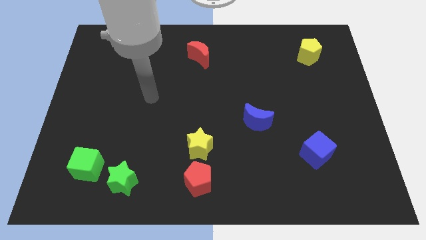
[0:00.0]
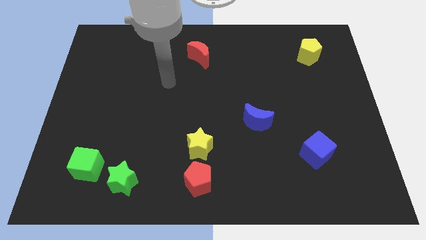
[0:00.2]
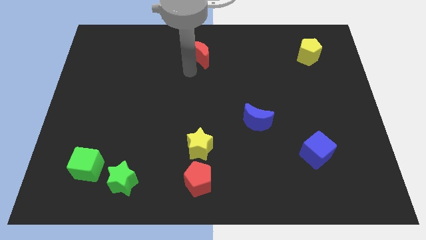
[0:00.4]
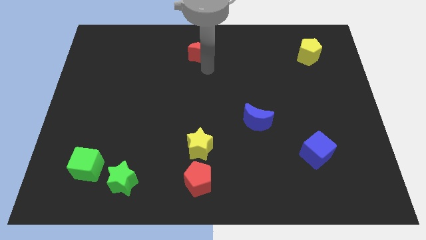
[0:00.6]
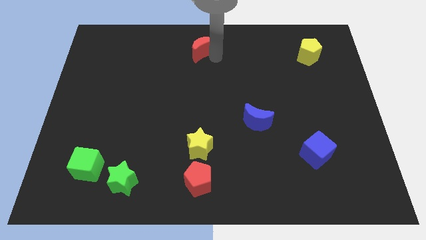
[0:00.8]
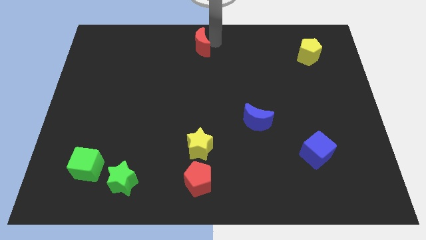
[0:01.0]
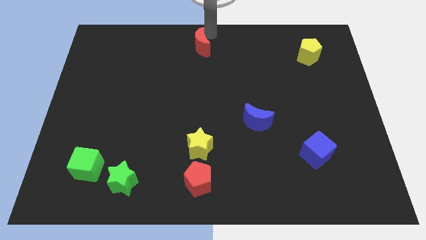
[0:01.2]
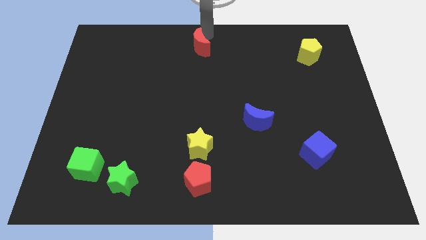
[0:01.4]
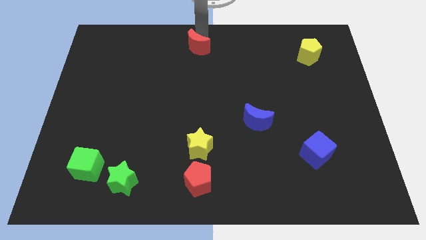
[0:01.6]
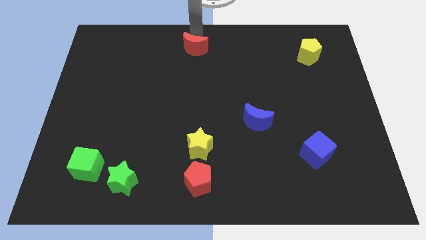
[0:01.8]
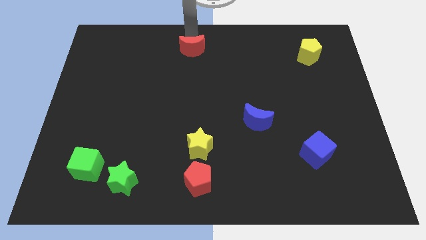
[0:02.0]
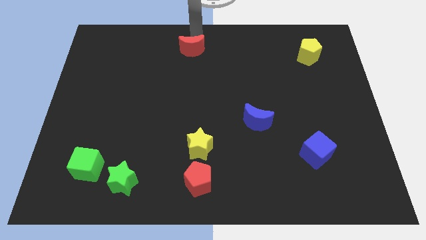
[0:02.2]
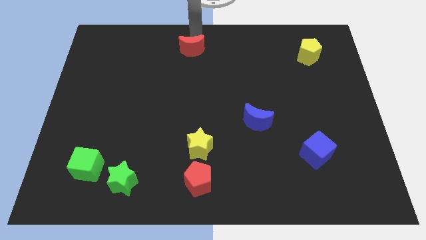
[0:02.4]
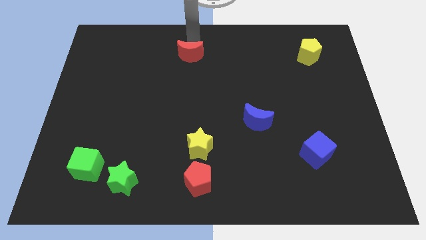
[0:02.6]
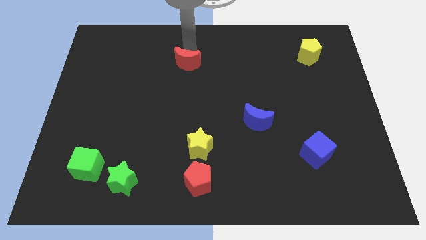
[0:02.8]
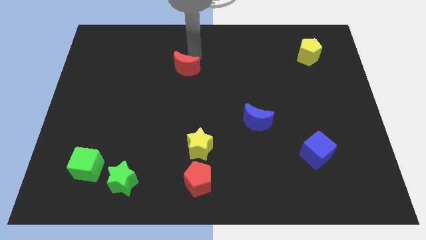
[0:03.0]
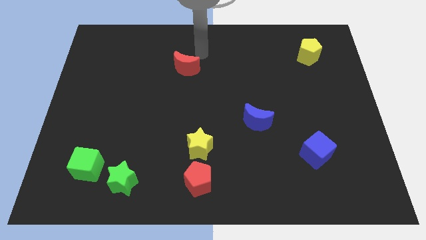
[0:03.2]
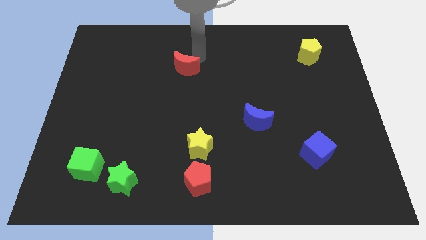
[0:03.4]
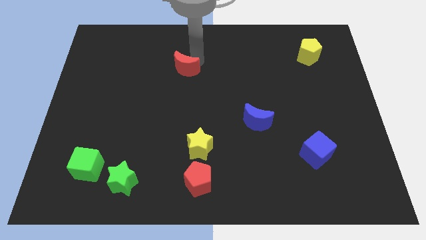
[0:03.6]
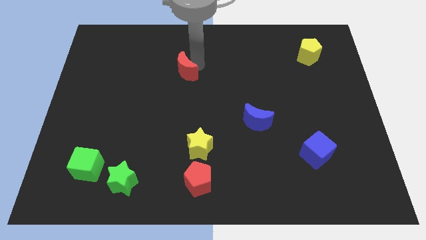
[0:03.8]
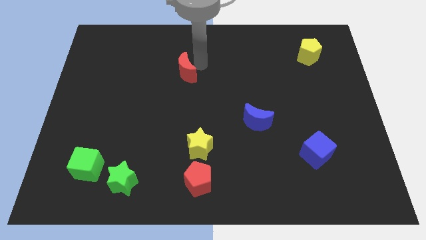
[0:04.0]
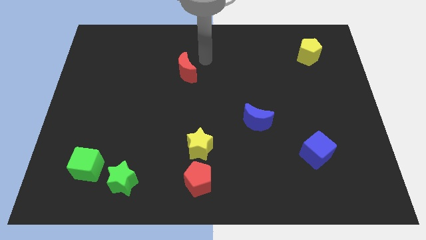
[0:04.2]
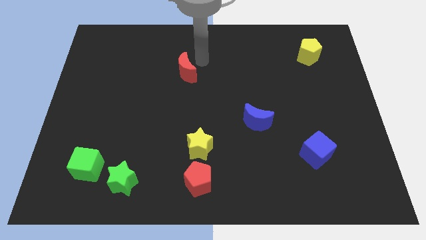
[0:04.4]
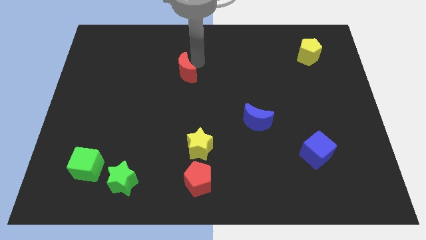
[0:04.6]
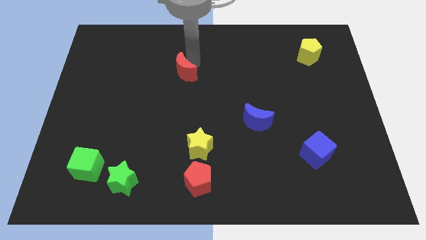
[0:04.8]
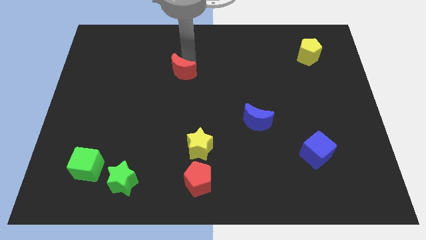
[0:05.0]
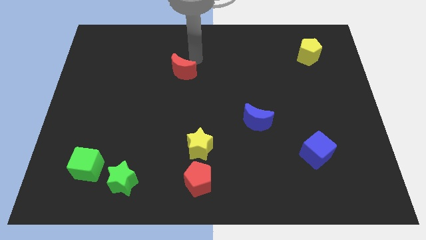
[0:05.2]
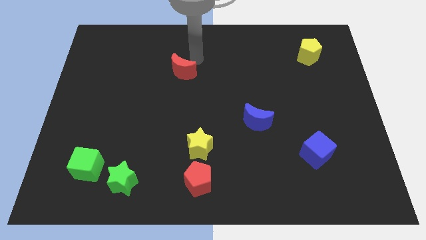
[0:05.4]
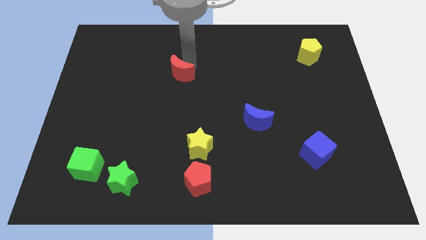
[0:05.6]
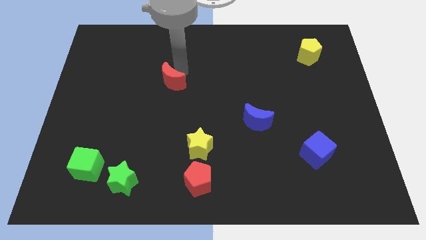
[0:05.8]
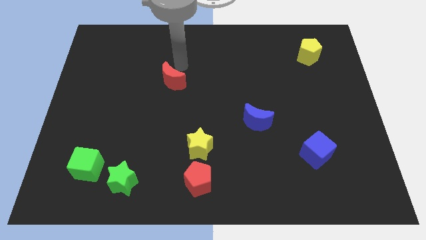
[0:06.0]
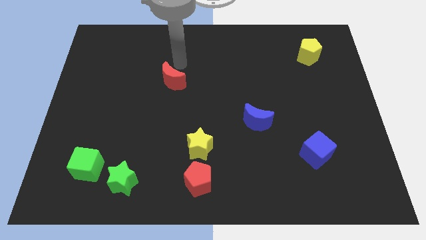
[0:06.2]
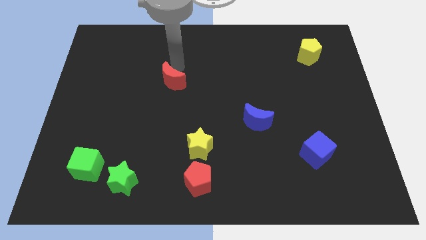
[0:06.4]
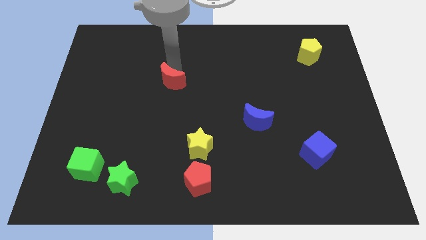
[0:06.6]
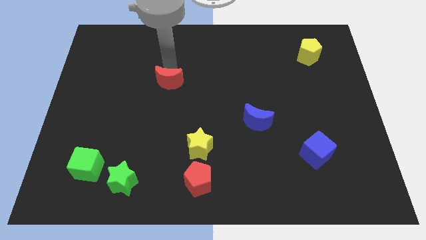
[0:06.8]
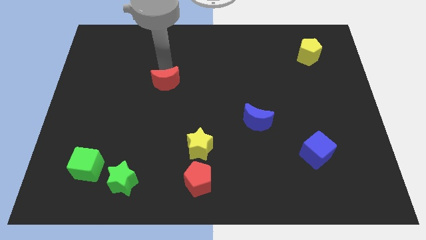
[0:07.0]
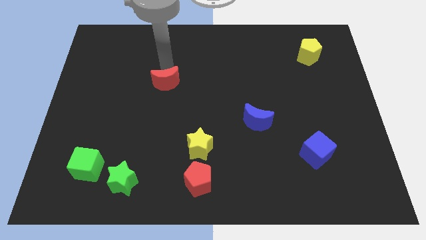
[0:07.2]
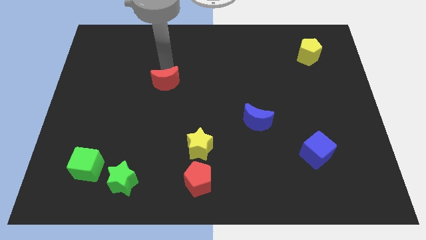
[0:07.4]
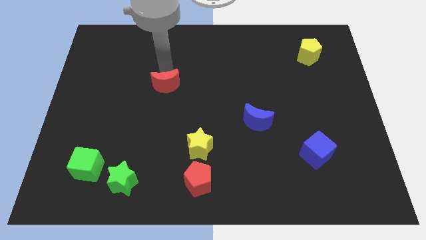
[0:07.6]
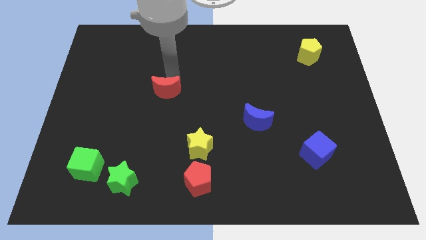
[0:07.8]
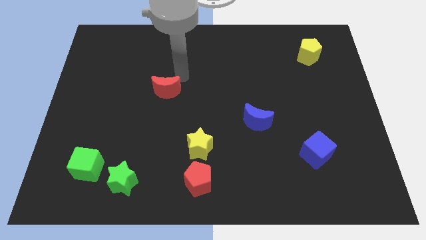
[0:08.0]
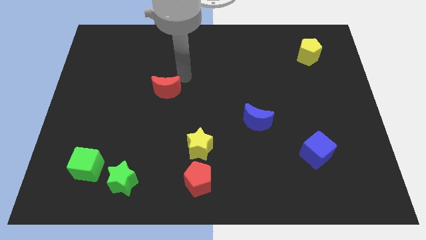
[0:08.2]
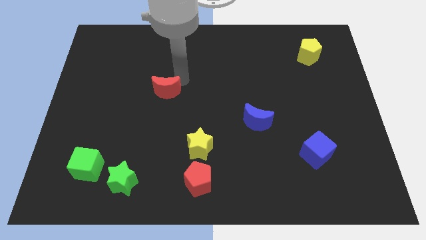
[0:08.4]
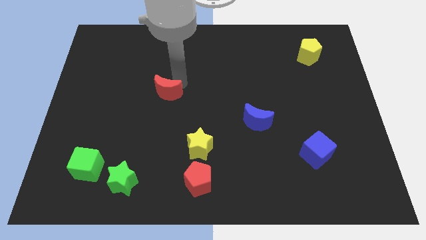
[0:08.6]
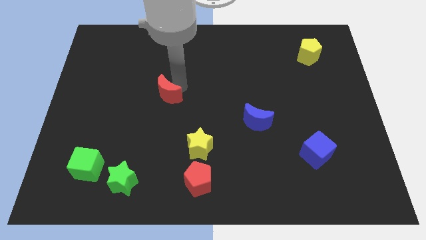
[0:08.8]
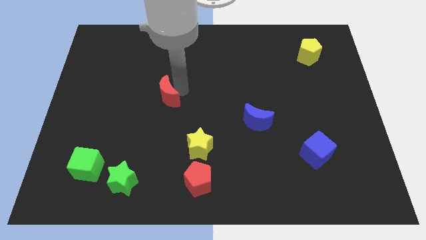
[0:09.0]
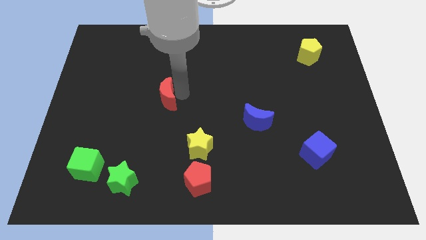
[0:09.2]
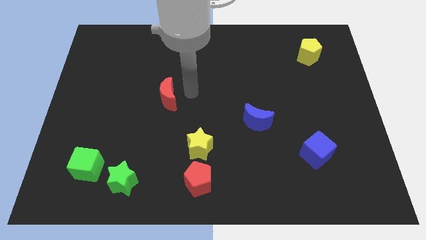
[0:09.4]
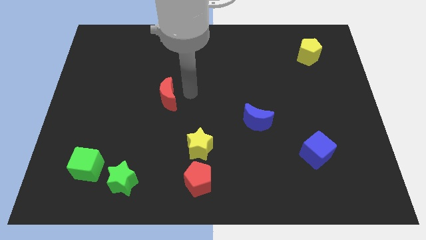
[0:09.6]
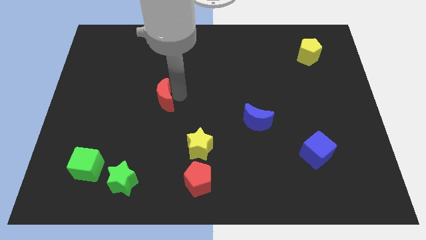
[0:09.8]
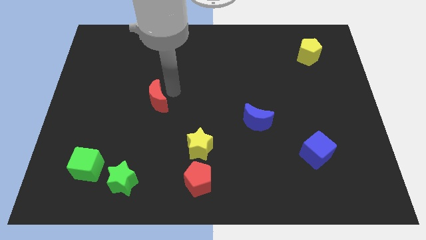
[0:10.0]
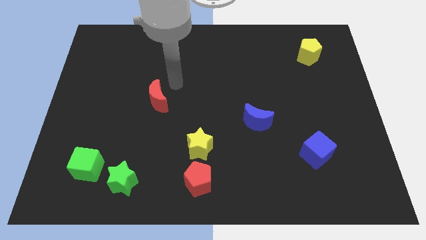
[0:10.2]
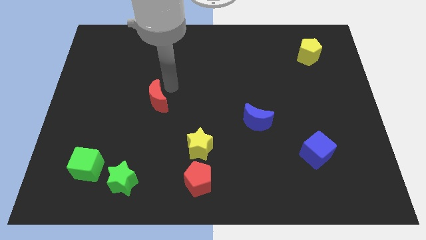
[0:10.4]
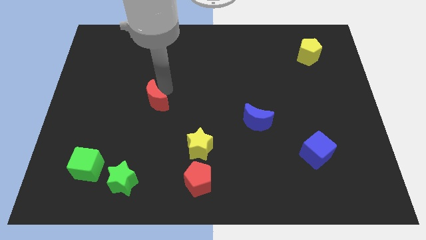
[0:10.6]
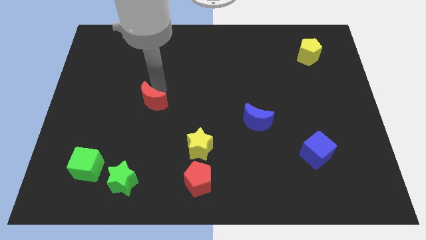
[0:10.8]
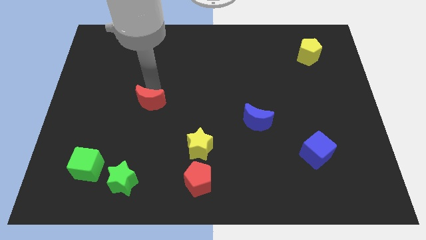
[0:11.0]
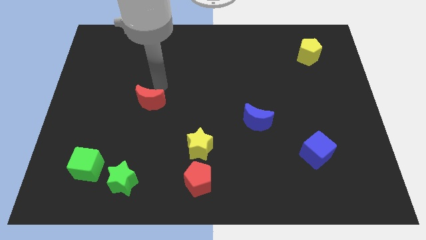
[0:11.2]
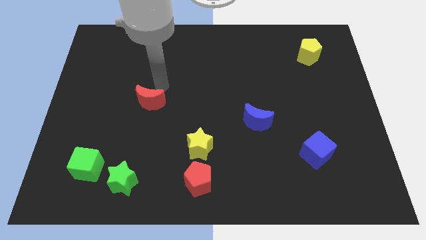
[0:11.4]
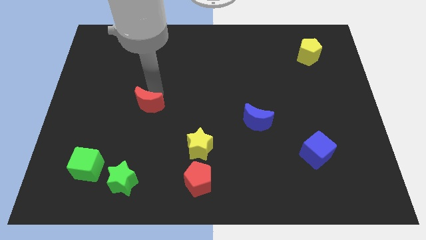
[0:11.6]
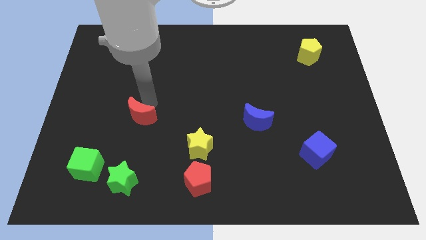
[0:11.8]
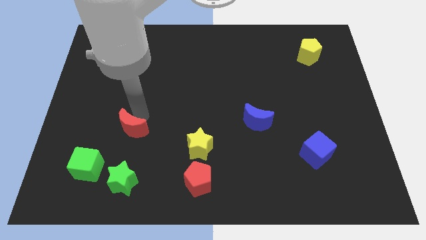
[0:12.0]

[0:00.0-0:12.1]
put the red moon to the top right side of the green cube
